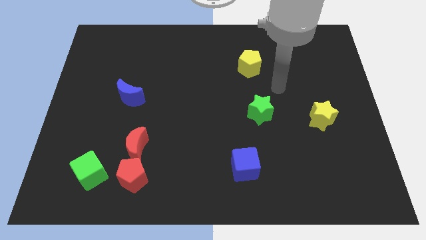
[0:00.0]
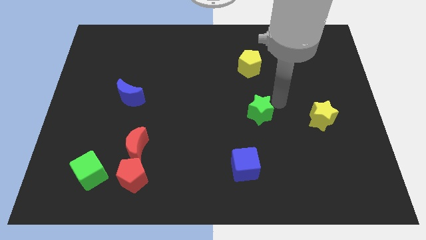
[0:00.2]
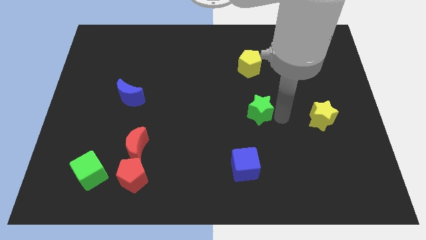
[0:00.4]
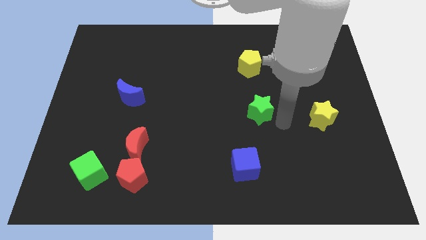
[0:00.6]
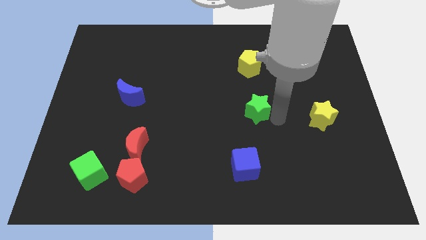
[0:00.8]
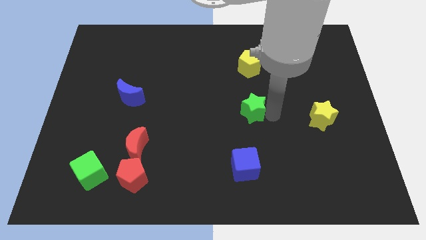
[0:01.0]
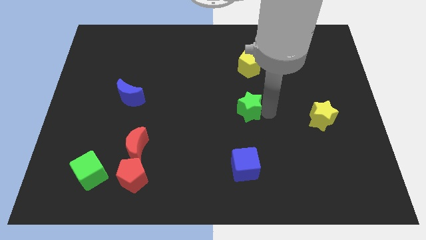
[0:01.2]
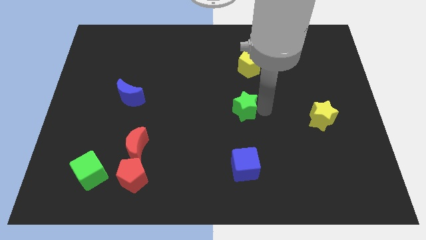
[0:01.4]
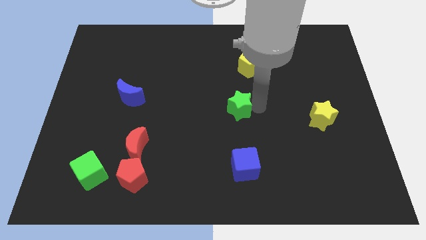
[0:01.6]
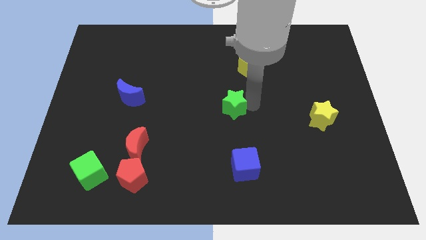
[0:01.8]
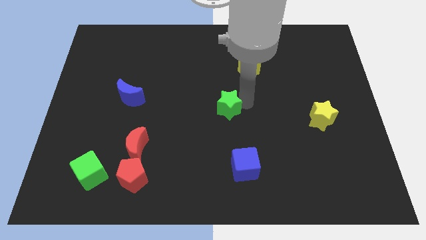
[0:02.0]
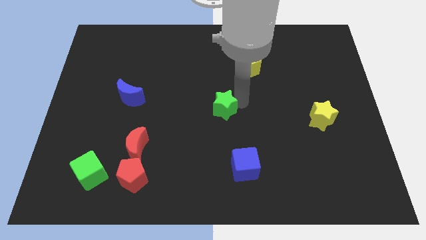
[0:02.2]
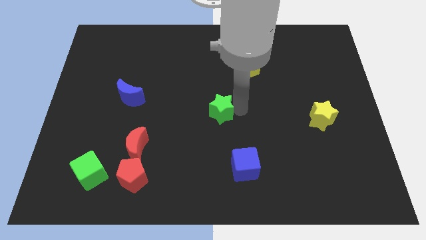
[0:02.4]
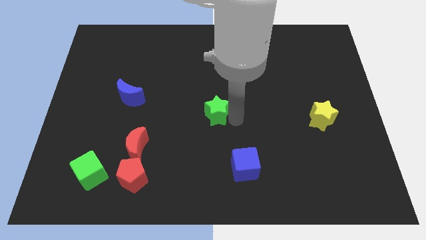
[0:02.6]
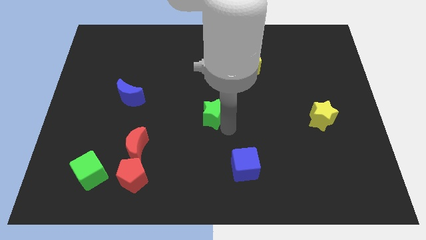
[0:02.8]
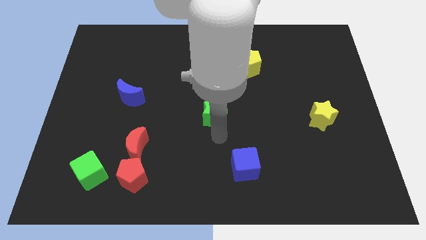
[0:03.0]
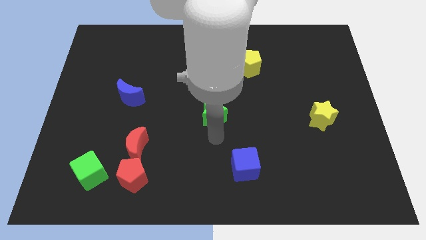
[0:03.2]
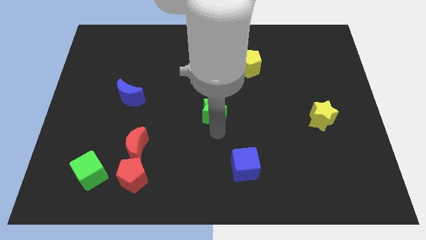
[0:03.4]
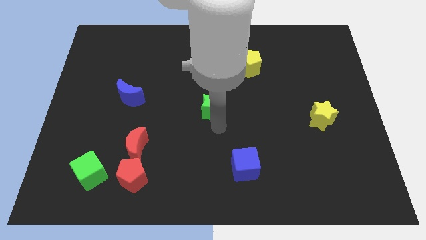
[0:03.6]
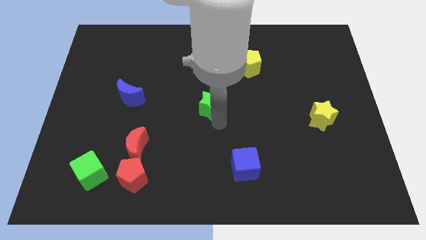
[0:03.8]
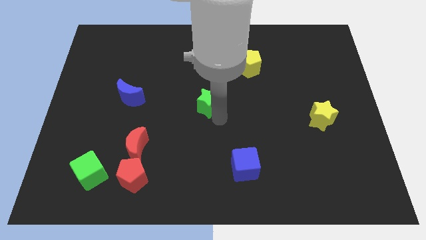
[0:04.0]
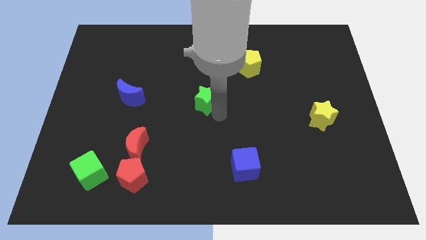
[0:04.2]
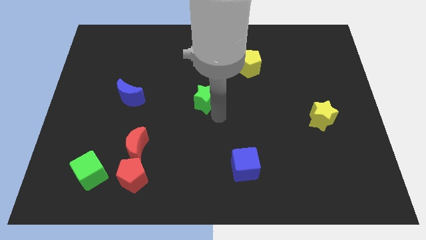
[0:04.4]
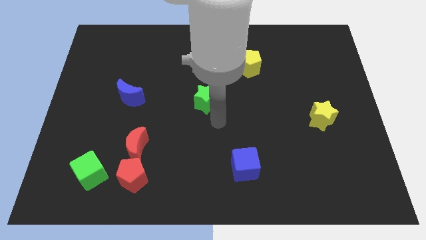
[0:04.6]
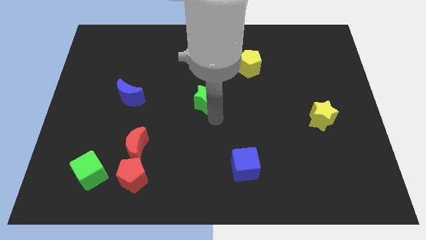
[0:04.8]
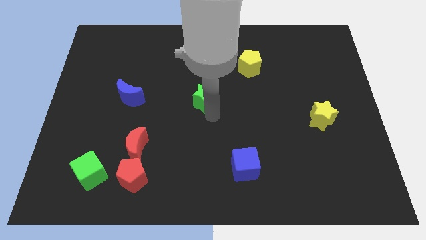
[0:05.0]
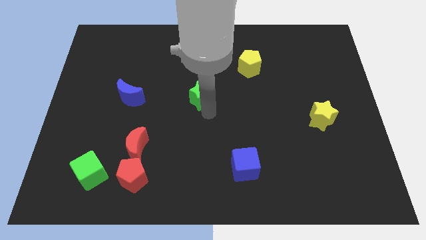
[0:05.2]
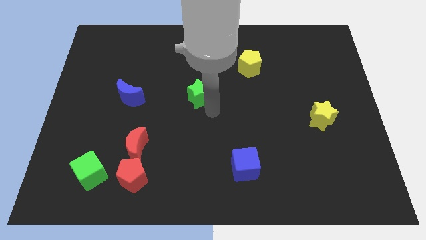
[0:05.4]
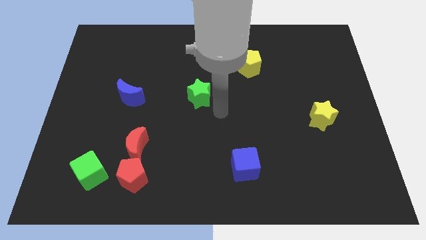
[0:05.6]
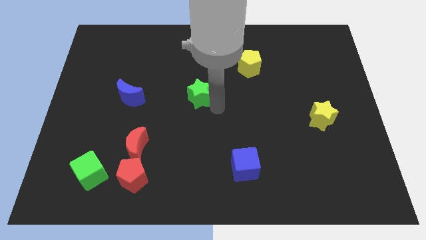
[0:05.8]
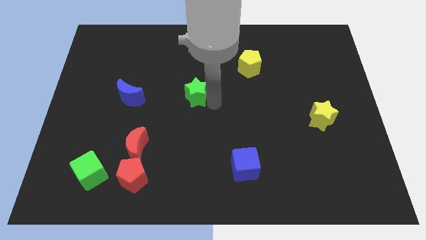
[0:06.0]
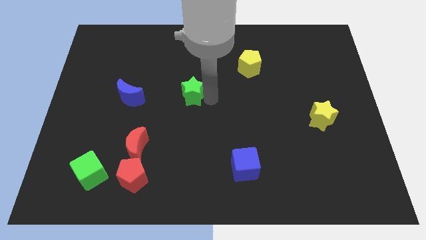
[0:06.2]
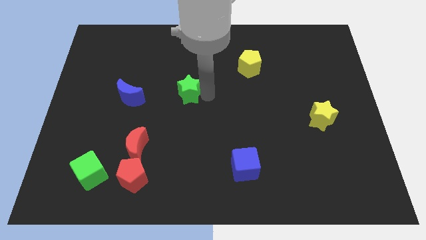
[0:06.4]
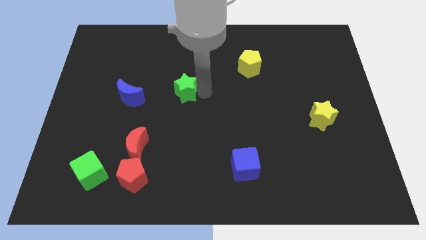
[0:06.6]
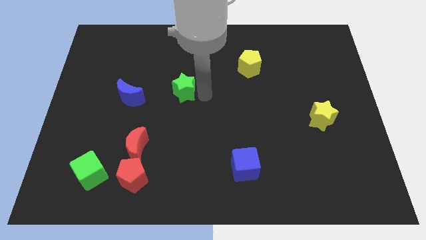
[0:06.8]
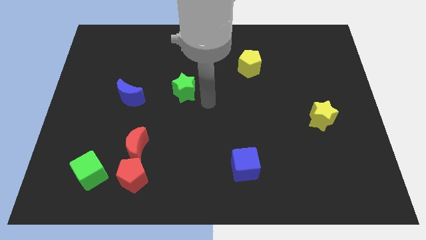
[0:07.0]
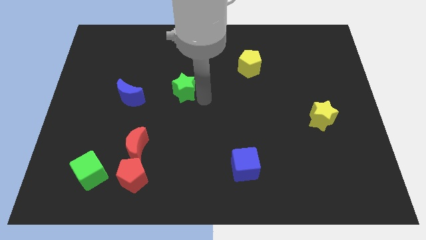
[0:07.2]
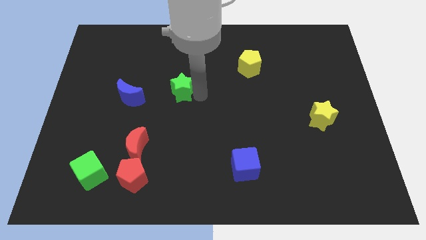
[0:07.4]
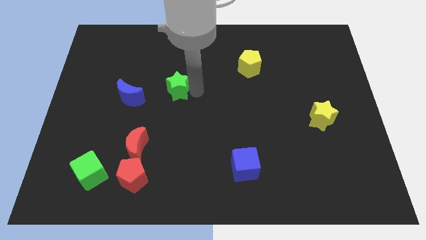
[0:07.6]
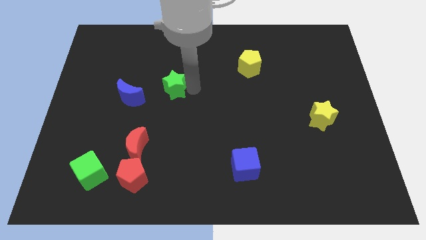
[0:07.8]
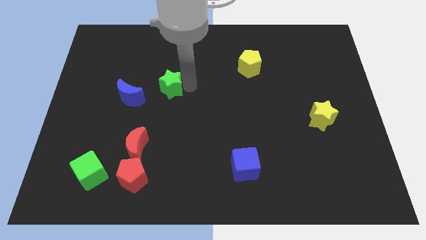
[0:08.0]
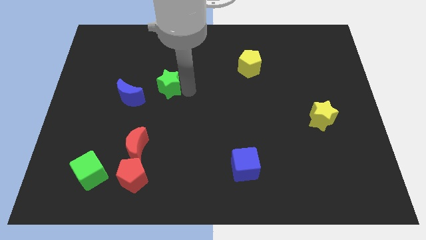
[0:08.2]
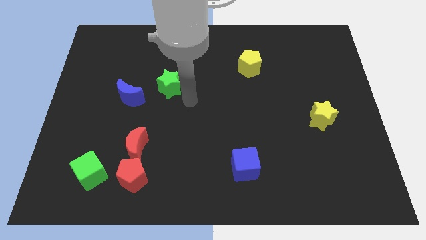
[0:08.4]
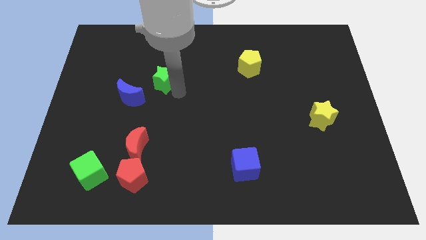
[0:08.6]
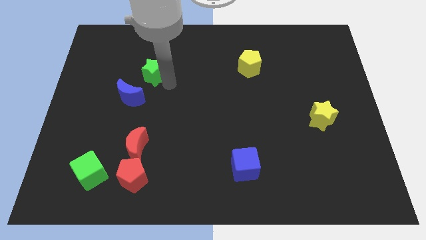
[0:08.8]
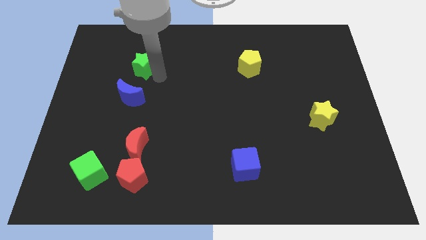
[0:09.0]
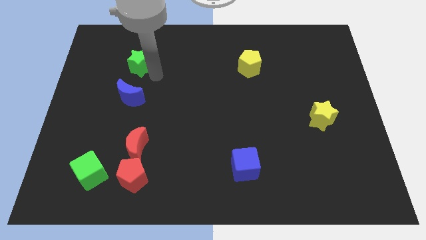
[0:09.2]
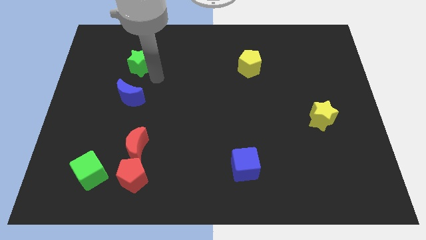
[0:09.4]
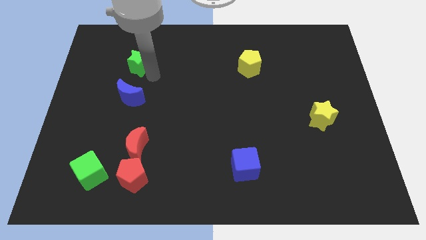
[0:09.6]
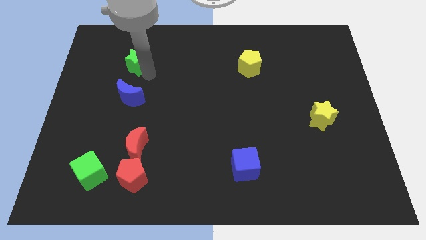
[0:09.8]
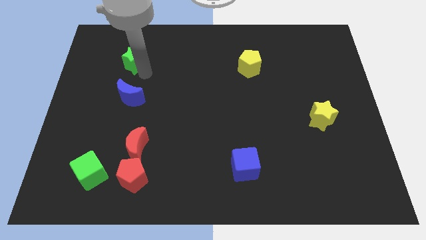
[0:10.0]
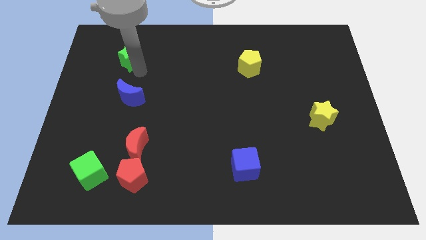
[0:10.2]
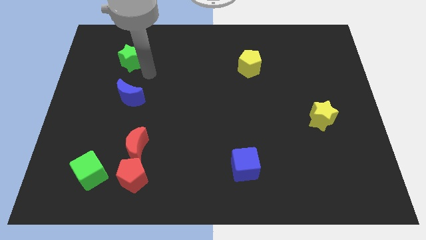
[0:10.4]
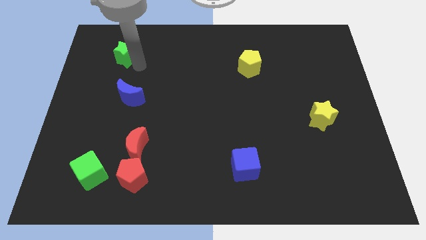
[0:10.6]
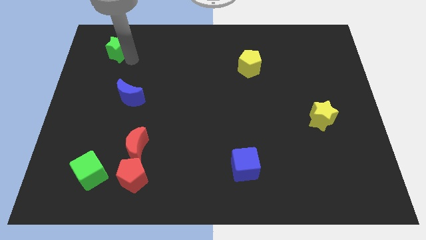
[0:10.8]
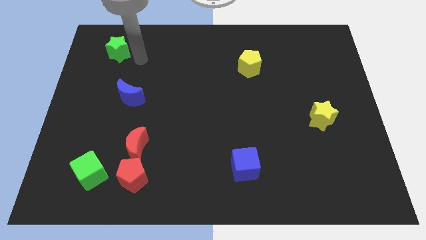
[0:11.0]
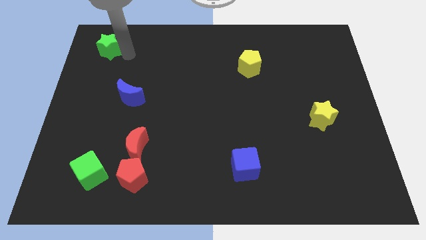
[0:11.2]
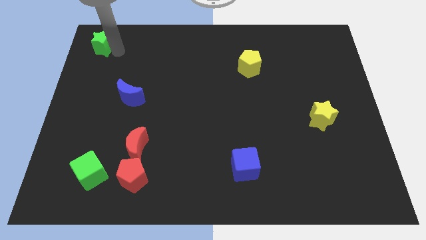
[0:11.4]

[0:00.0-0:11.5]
put the green star to the top left of the board
